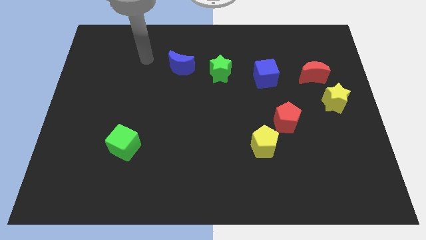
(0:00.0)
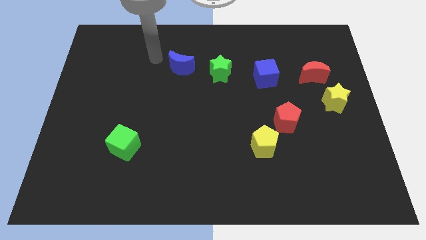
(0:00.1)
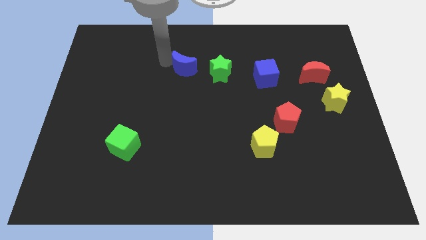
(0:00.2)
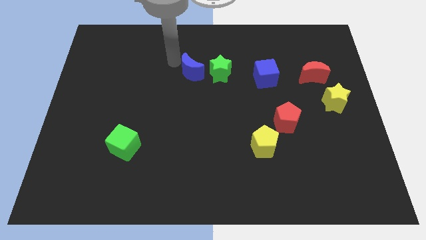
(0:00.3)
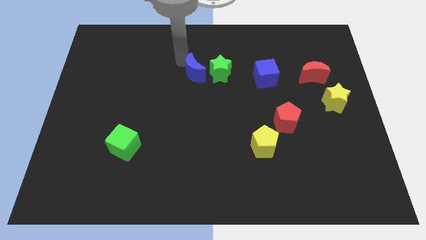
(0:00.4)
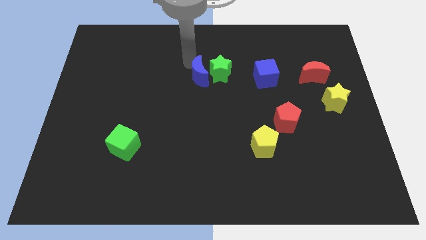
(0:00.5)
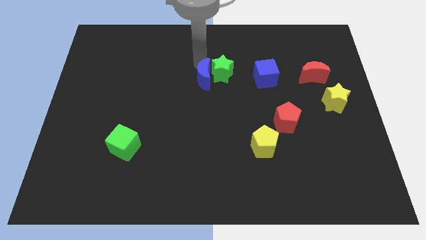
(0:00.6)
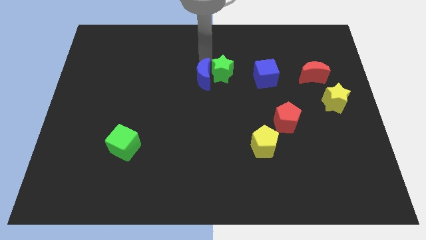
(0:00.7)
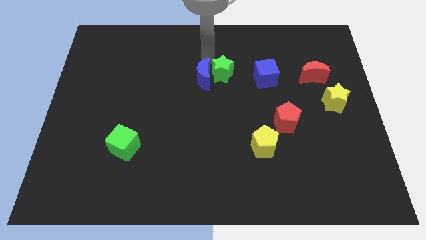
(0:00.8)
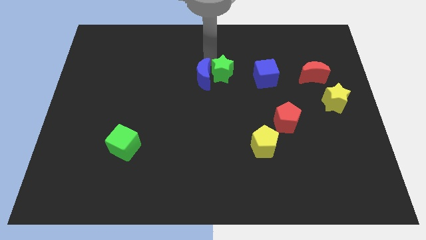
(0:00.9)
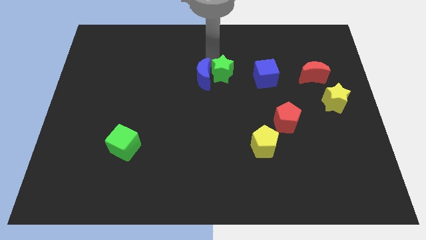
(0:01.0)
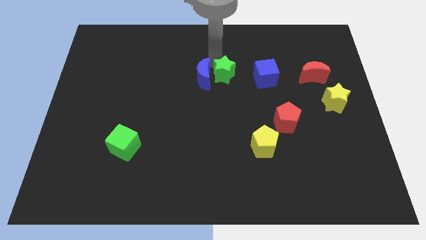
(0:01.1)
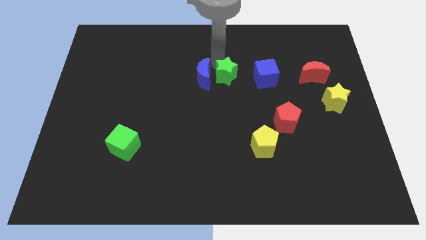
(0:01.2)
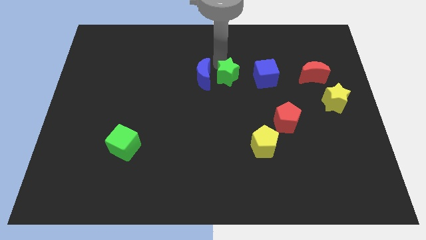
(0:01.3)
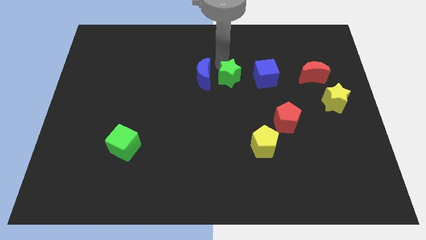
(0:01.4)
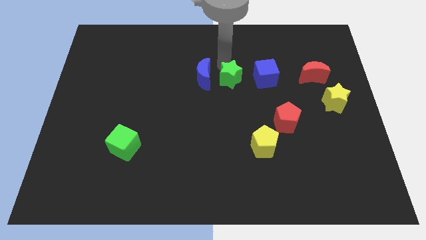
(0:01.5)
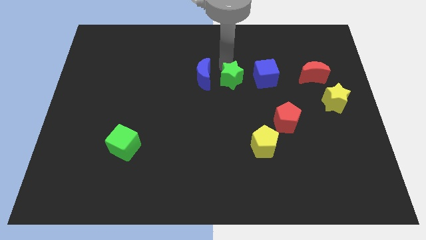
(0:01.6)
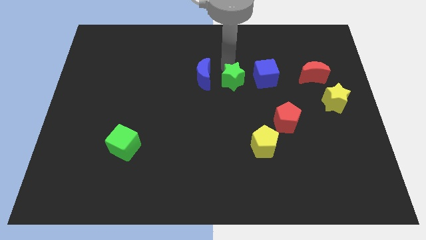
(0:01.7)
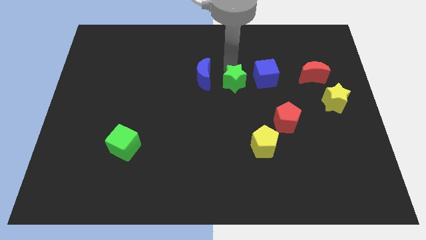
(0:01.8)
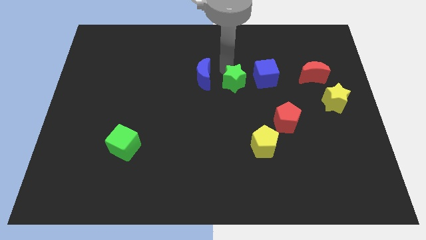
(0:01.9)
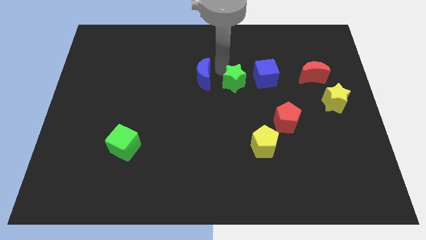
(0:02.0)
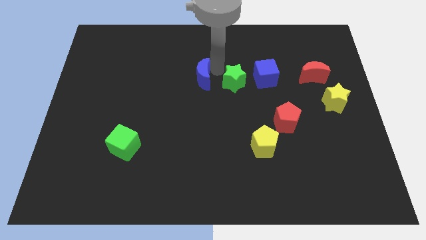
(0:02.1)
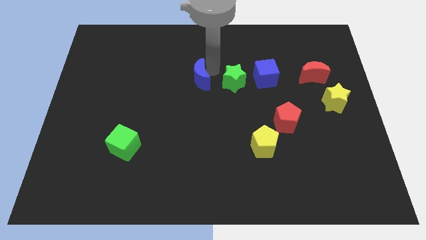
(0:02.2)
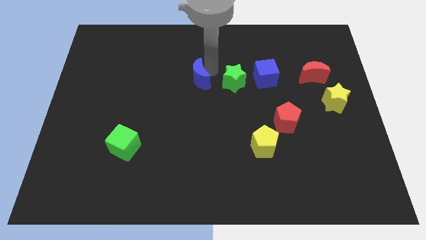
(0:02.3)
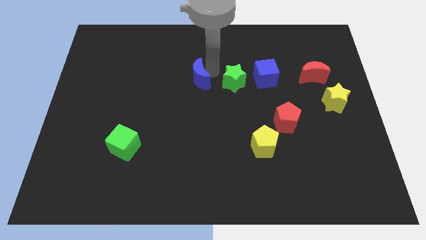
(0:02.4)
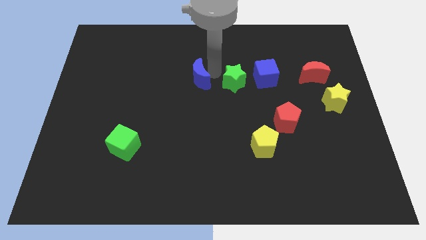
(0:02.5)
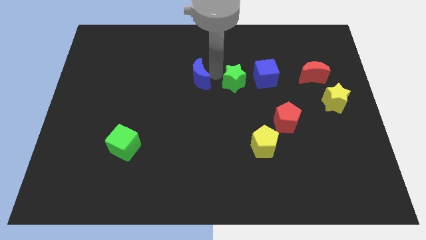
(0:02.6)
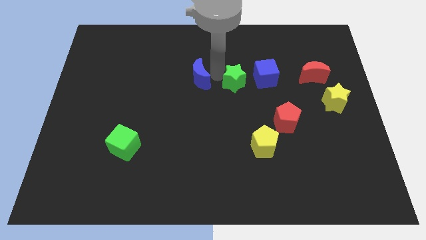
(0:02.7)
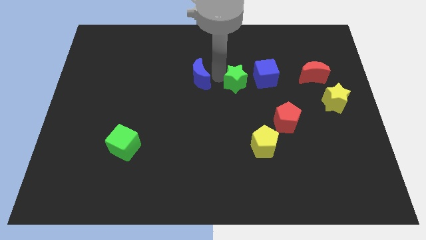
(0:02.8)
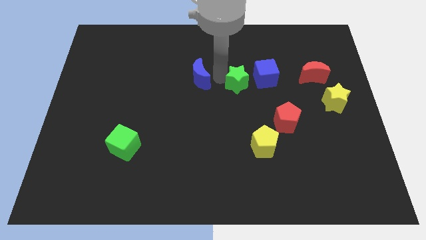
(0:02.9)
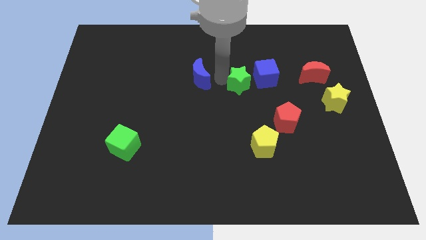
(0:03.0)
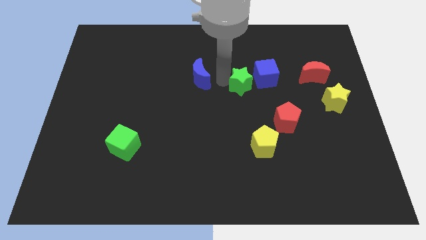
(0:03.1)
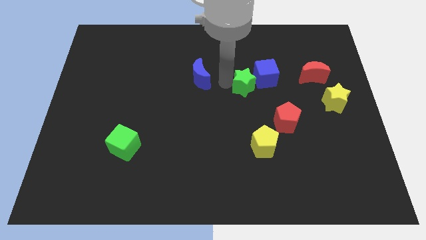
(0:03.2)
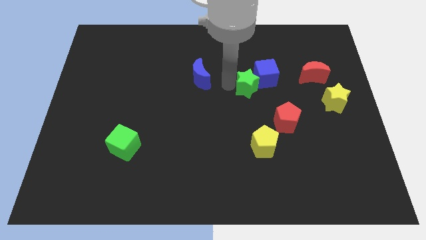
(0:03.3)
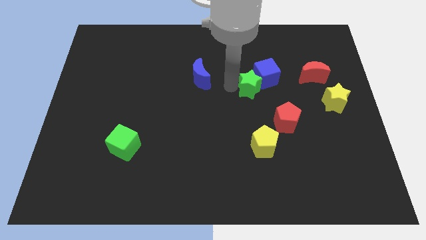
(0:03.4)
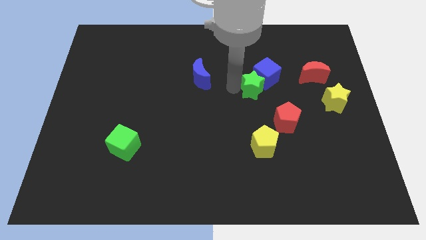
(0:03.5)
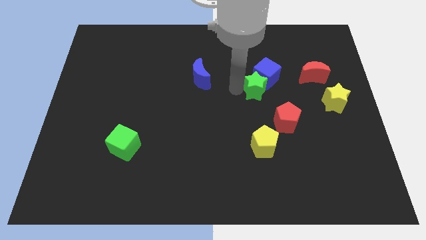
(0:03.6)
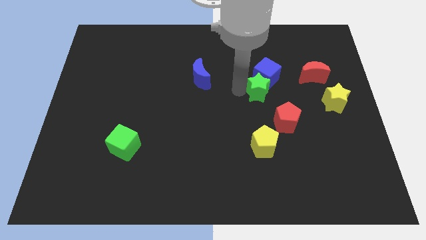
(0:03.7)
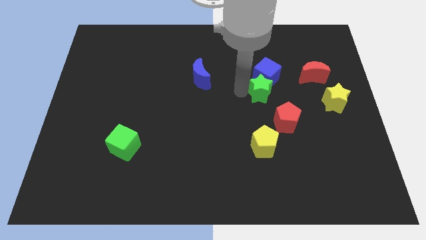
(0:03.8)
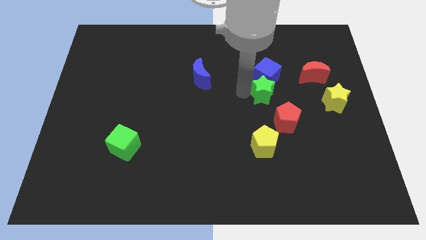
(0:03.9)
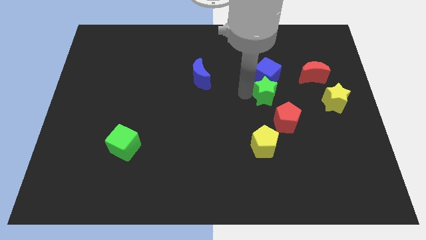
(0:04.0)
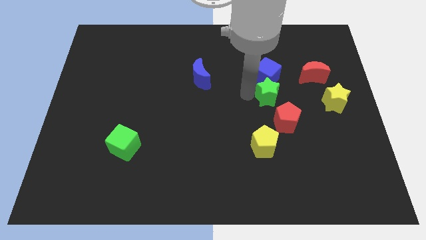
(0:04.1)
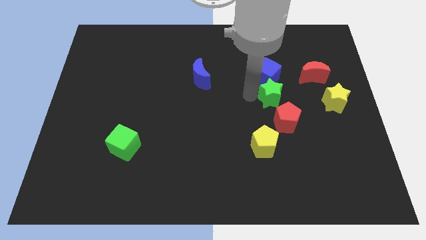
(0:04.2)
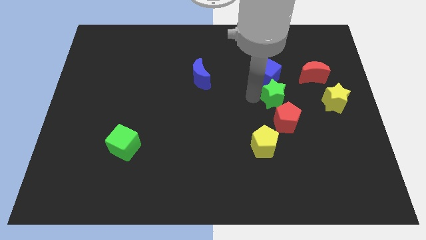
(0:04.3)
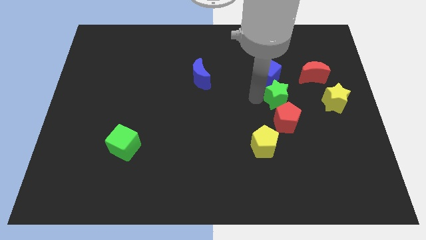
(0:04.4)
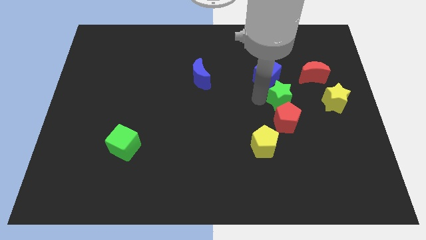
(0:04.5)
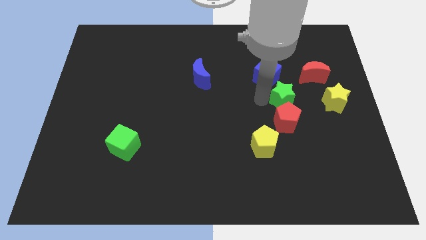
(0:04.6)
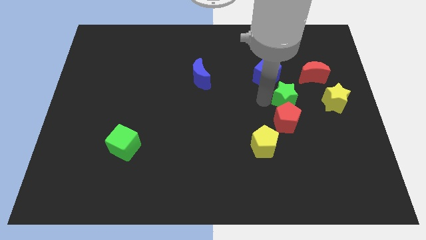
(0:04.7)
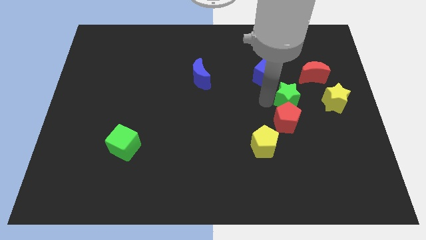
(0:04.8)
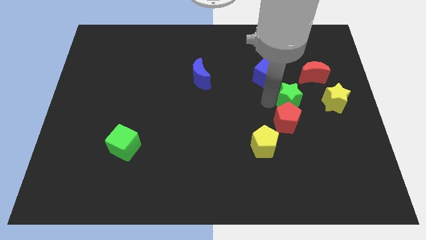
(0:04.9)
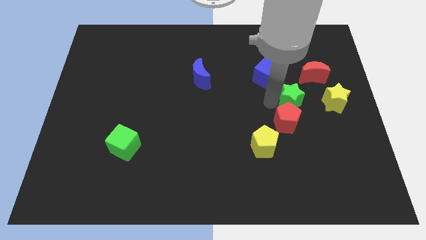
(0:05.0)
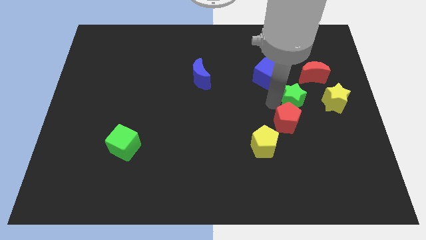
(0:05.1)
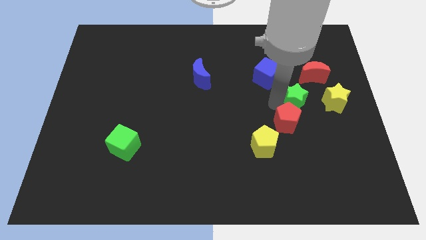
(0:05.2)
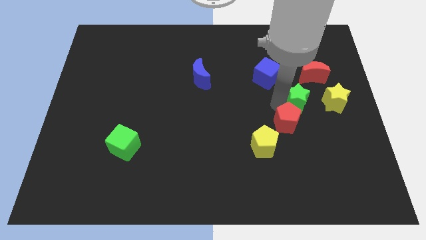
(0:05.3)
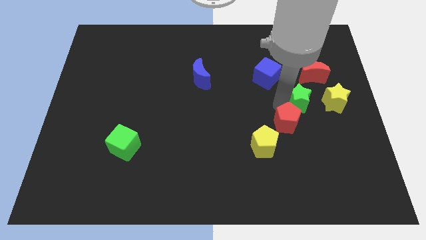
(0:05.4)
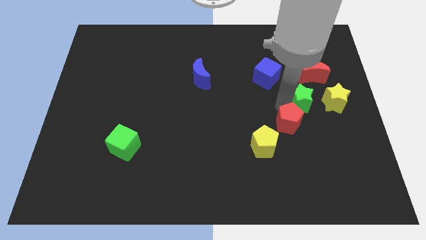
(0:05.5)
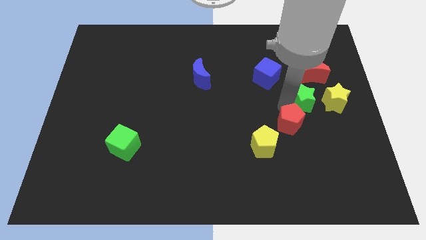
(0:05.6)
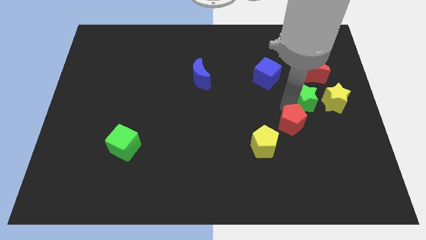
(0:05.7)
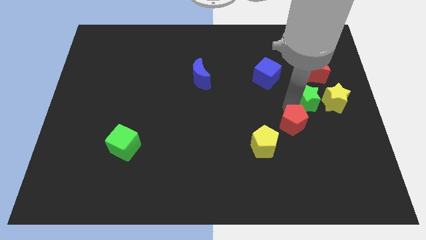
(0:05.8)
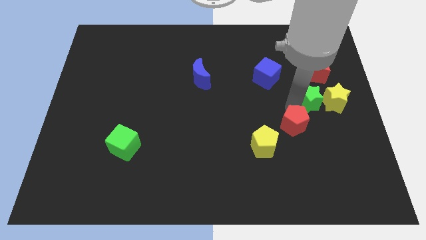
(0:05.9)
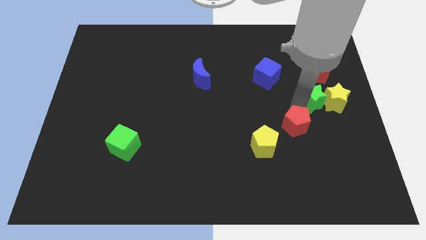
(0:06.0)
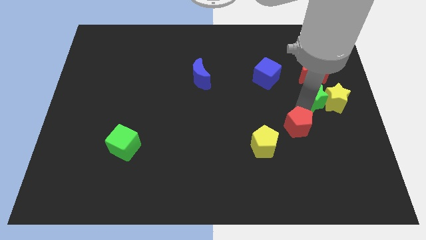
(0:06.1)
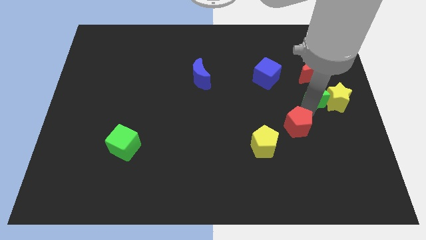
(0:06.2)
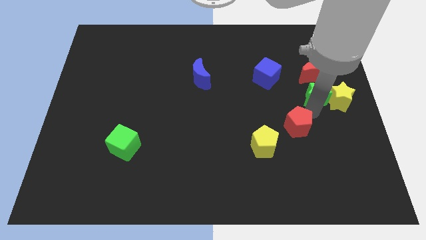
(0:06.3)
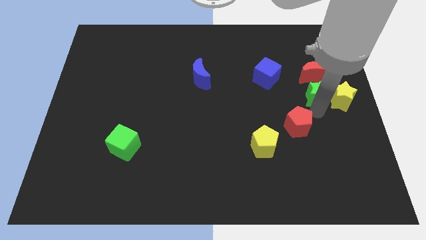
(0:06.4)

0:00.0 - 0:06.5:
slide the green star to the right side of the board

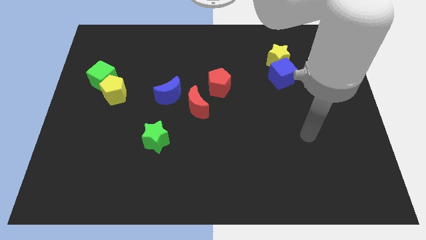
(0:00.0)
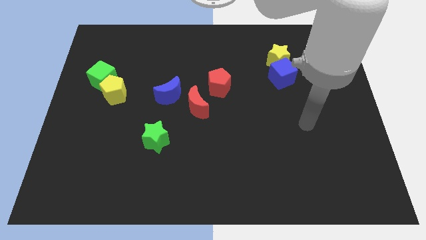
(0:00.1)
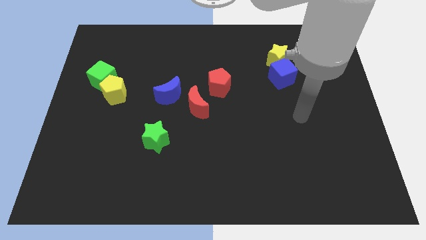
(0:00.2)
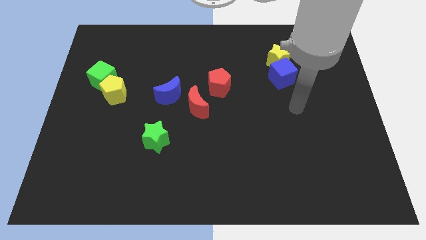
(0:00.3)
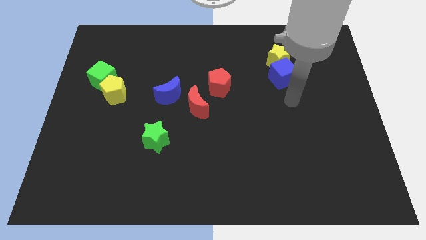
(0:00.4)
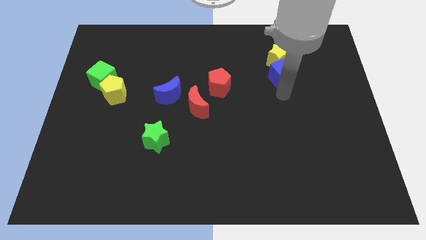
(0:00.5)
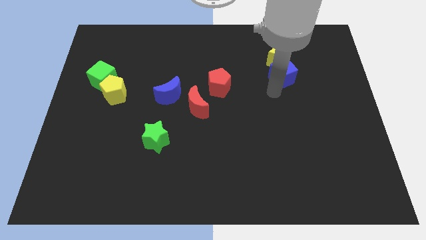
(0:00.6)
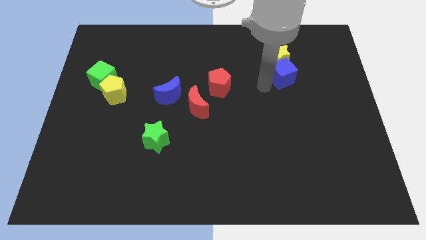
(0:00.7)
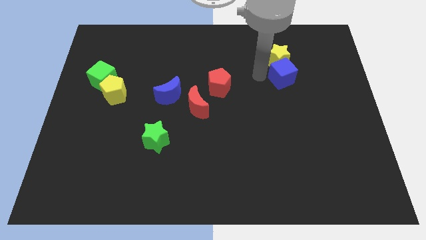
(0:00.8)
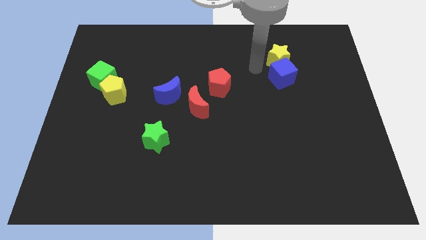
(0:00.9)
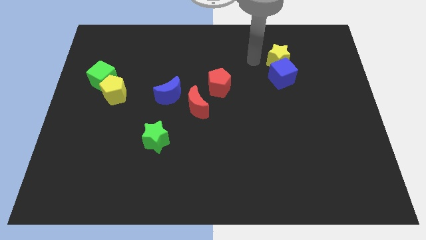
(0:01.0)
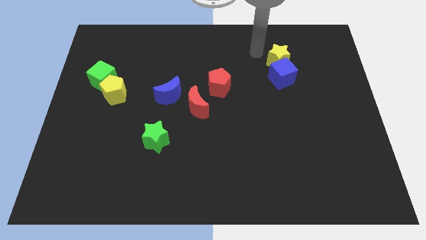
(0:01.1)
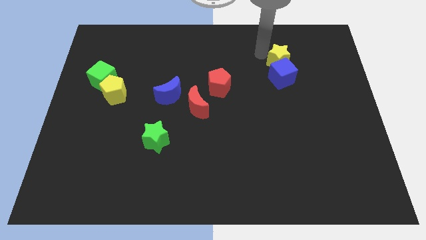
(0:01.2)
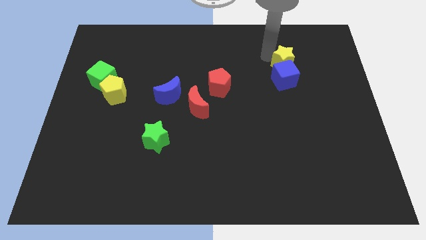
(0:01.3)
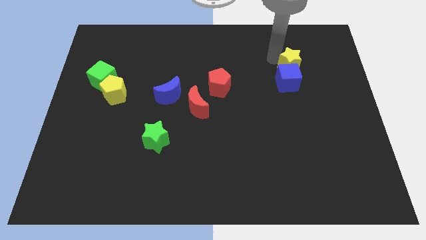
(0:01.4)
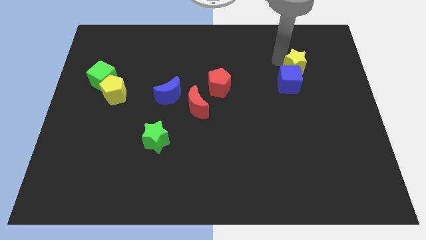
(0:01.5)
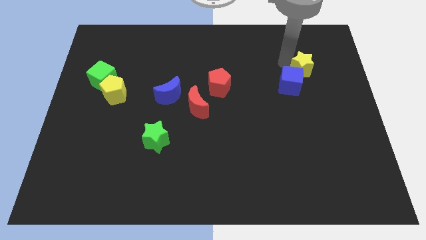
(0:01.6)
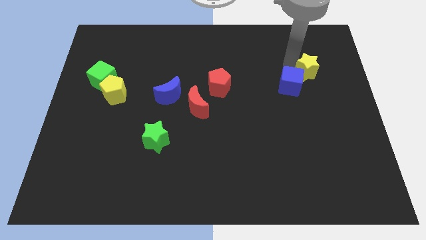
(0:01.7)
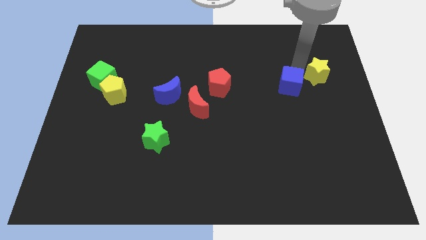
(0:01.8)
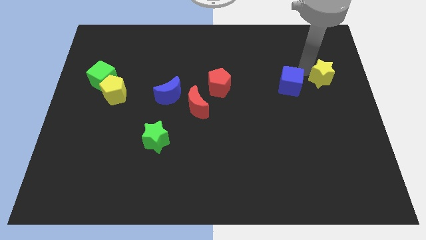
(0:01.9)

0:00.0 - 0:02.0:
push the yellow star to the center right
